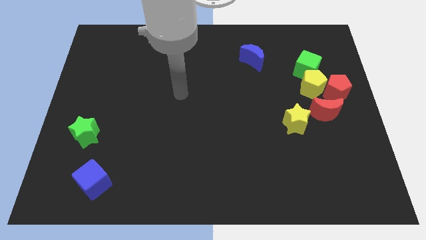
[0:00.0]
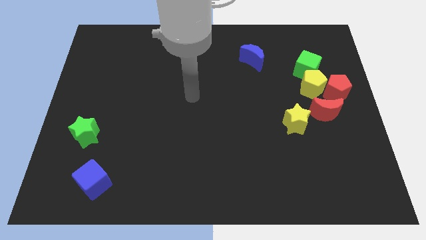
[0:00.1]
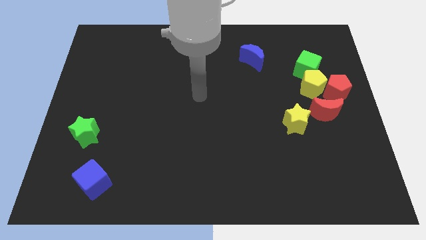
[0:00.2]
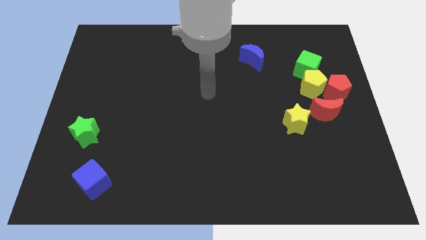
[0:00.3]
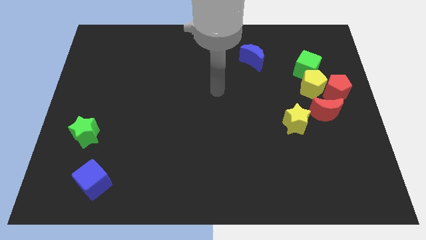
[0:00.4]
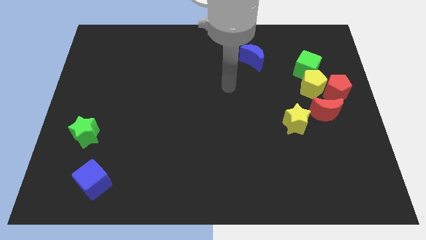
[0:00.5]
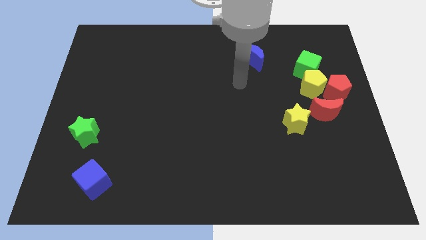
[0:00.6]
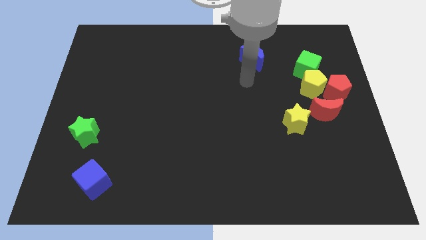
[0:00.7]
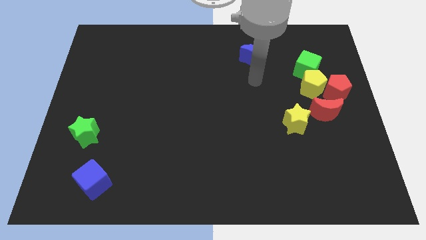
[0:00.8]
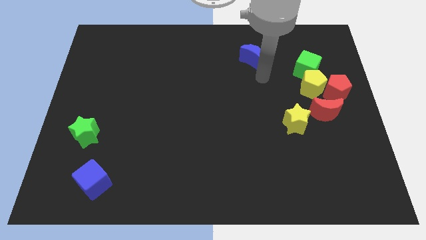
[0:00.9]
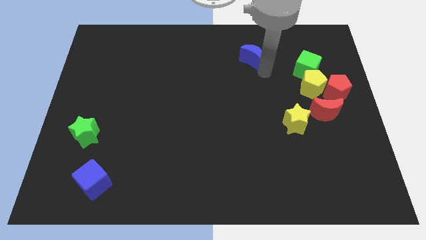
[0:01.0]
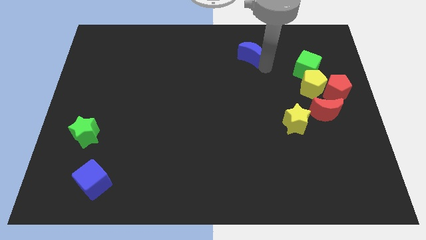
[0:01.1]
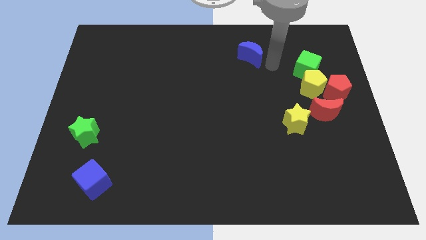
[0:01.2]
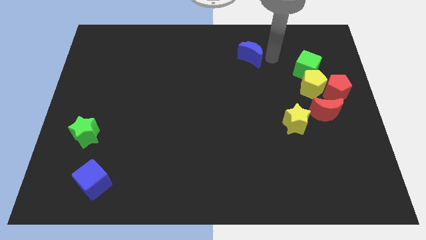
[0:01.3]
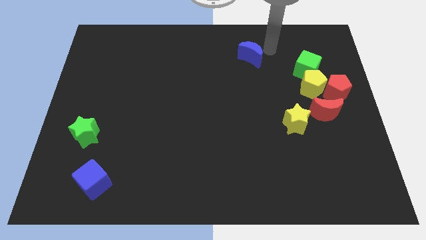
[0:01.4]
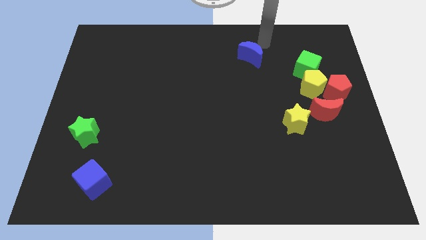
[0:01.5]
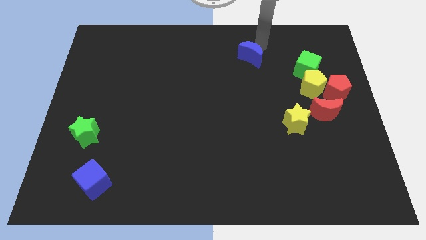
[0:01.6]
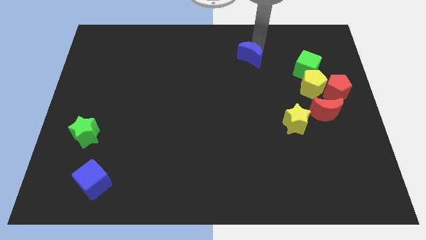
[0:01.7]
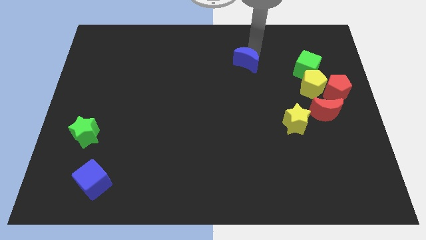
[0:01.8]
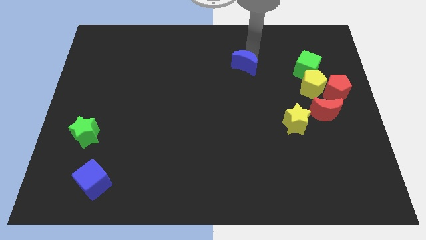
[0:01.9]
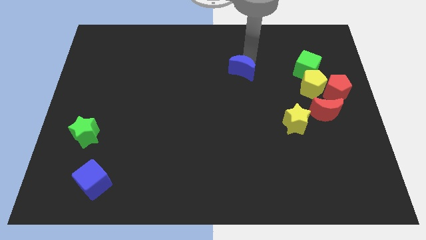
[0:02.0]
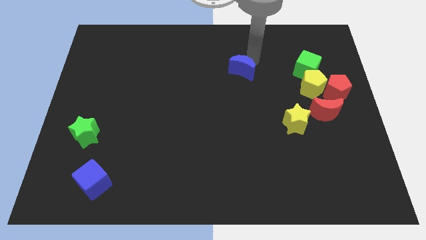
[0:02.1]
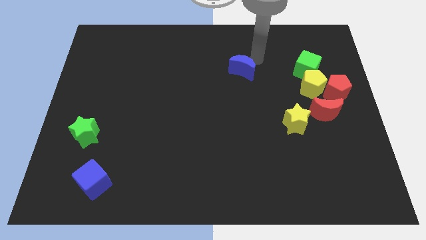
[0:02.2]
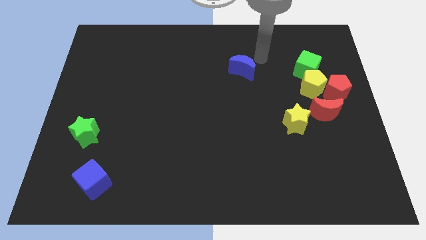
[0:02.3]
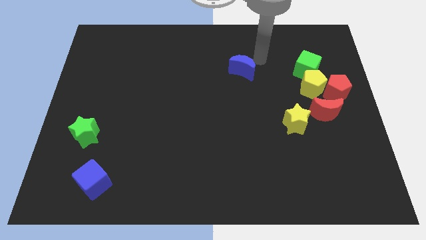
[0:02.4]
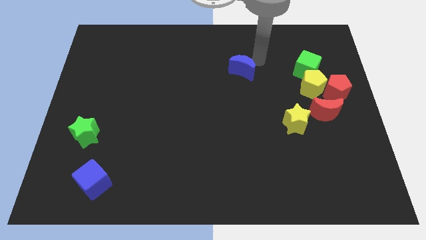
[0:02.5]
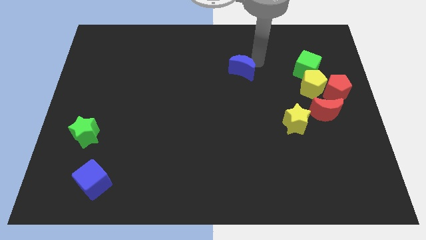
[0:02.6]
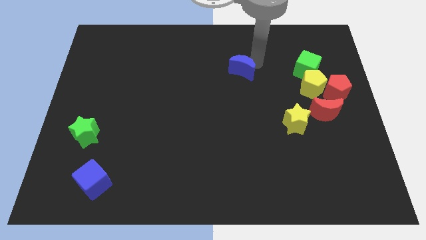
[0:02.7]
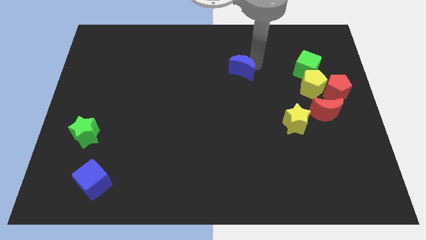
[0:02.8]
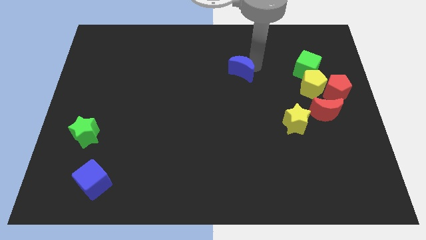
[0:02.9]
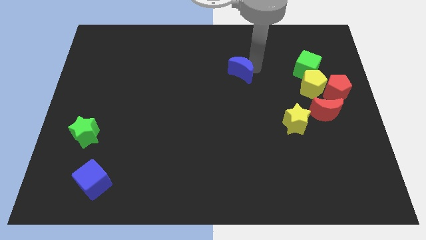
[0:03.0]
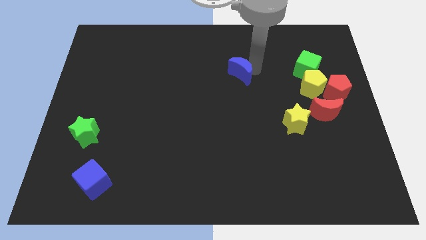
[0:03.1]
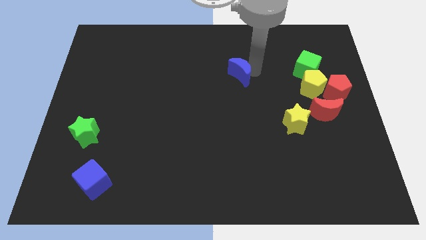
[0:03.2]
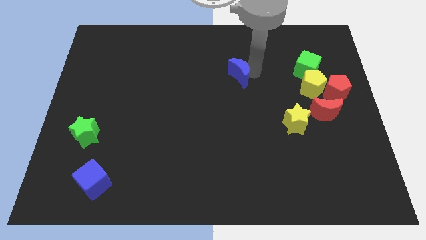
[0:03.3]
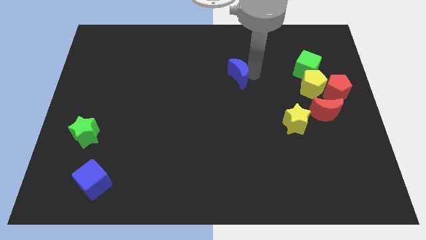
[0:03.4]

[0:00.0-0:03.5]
slightly move the blue moon diagonally downwards and left

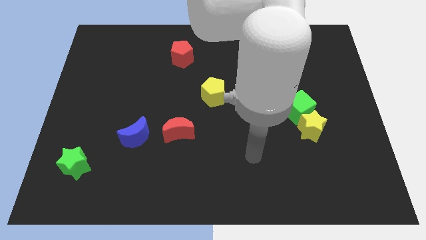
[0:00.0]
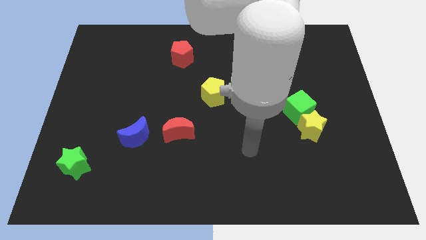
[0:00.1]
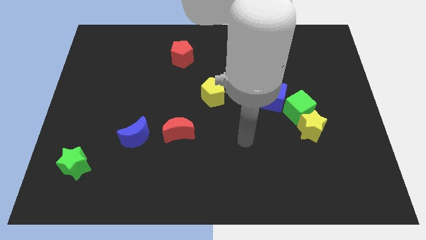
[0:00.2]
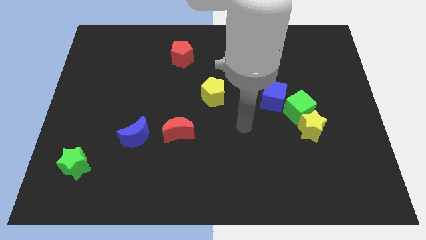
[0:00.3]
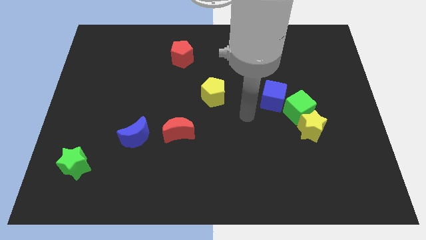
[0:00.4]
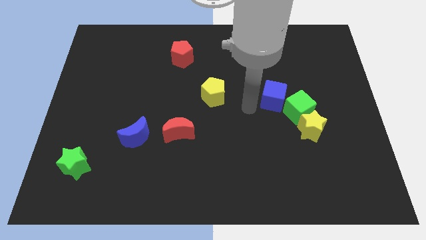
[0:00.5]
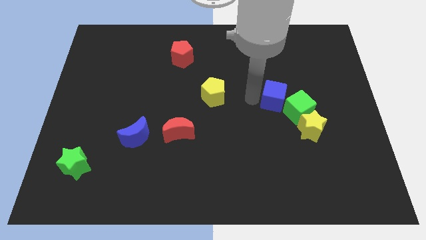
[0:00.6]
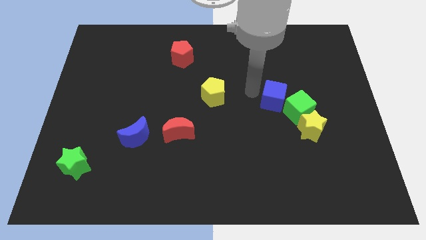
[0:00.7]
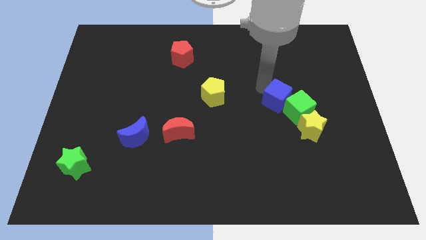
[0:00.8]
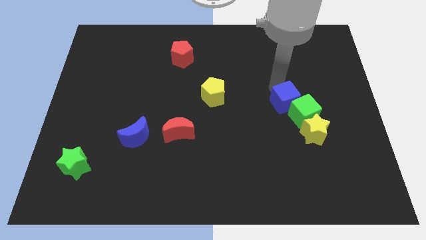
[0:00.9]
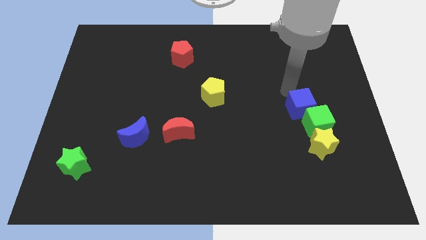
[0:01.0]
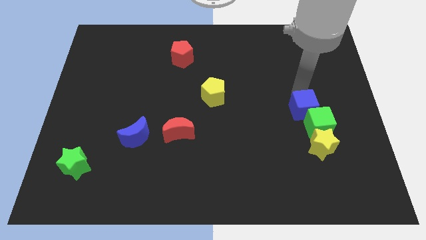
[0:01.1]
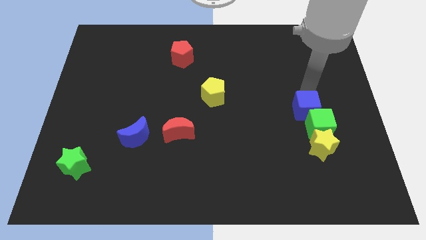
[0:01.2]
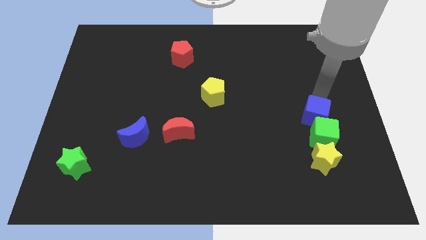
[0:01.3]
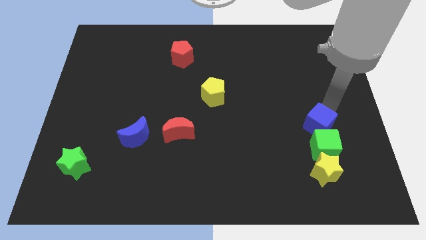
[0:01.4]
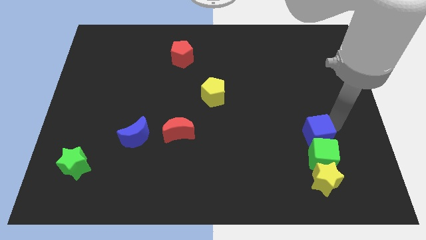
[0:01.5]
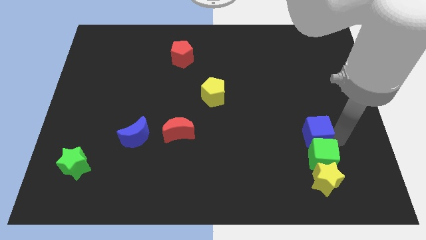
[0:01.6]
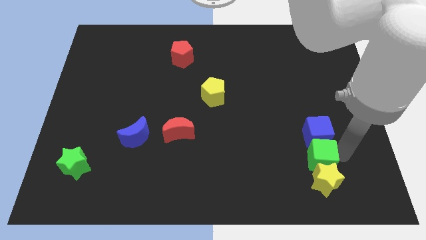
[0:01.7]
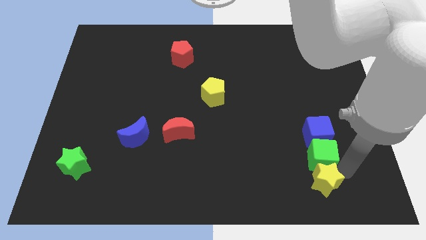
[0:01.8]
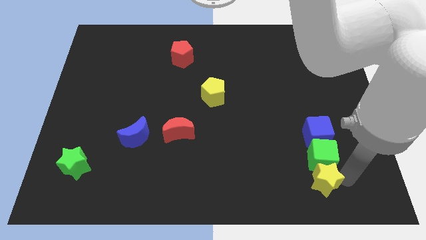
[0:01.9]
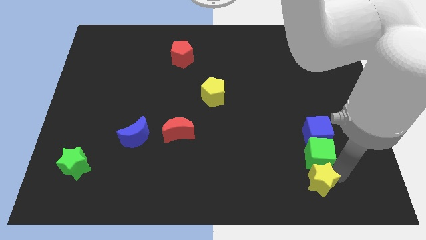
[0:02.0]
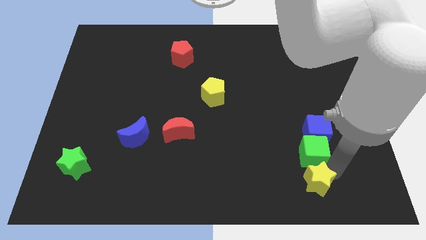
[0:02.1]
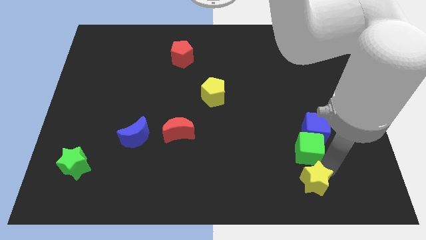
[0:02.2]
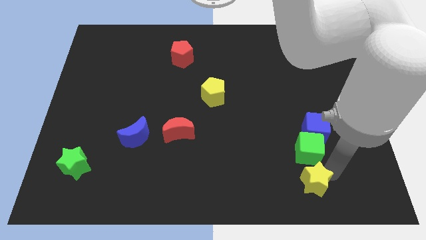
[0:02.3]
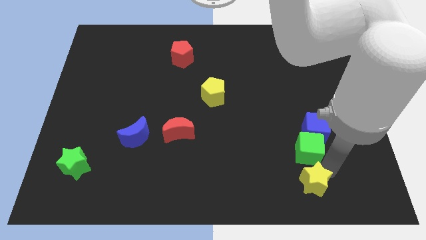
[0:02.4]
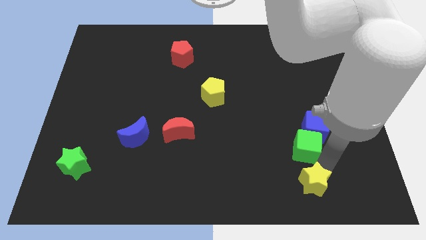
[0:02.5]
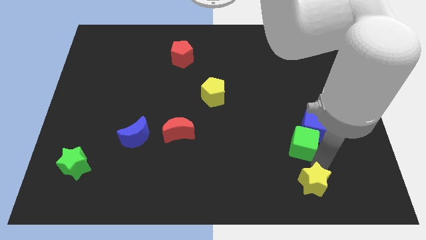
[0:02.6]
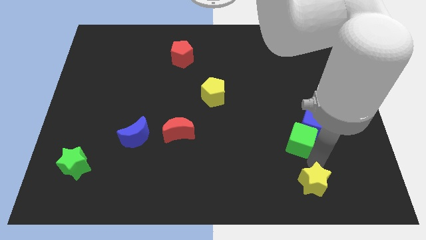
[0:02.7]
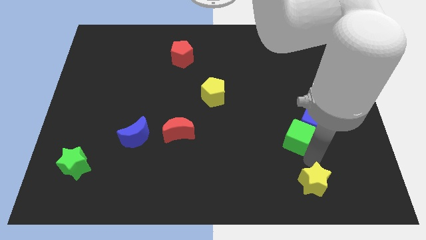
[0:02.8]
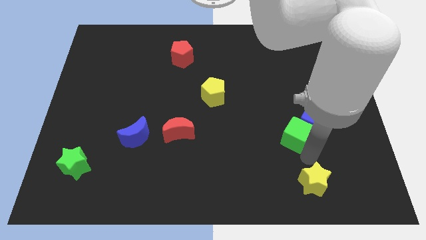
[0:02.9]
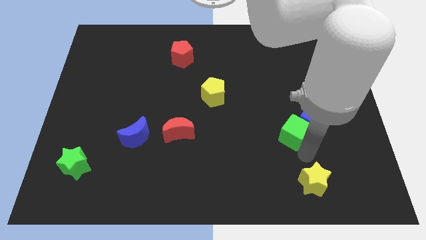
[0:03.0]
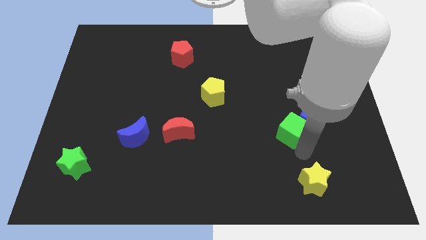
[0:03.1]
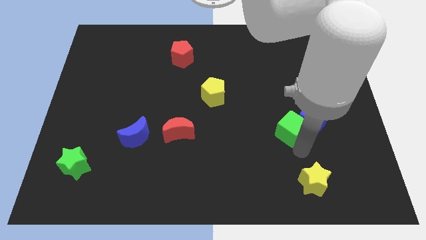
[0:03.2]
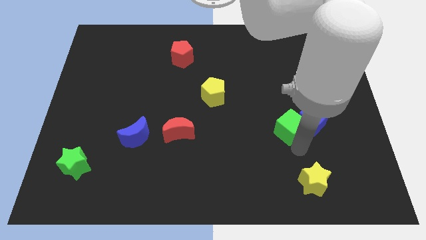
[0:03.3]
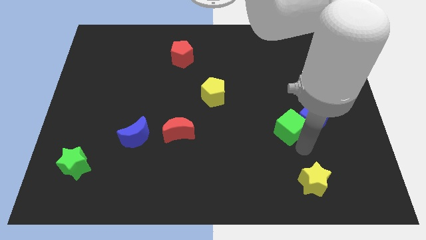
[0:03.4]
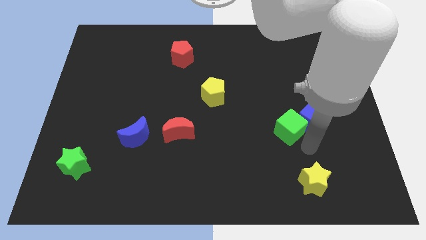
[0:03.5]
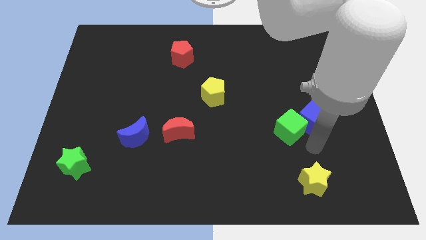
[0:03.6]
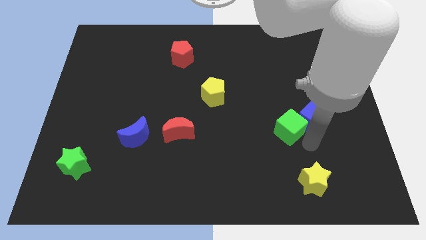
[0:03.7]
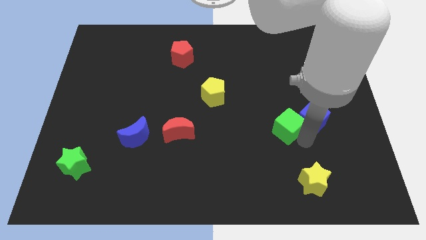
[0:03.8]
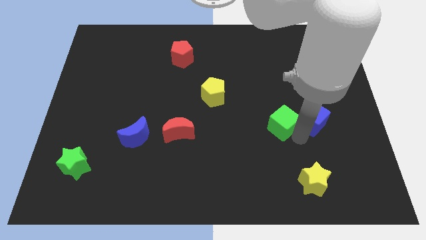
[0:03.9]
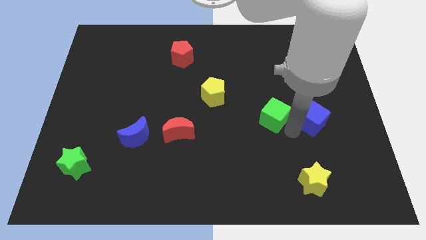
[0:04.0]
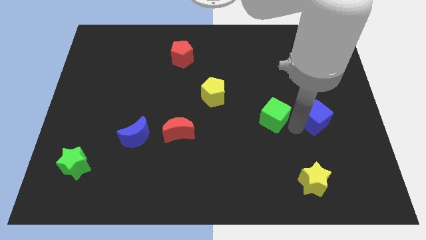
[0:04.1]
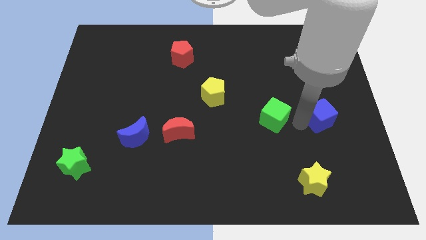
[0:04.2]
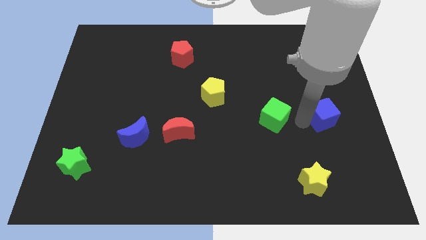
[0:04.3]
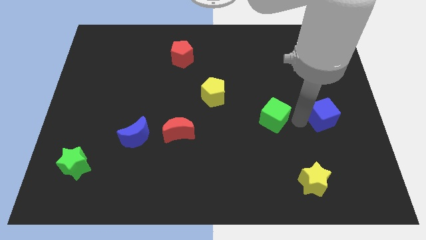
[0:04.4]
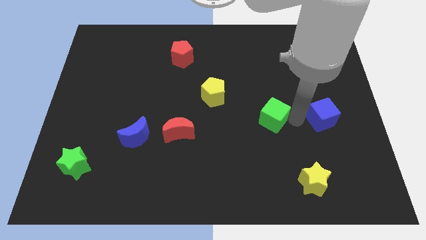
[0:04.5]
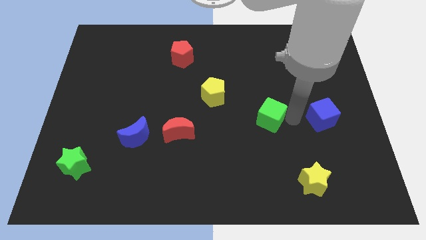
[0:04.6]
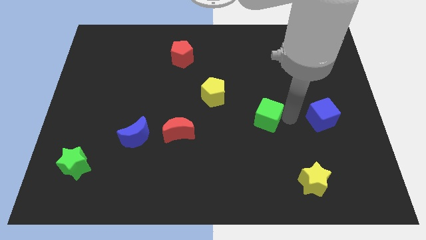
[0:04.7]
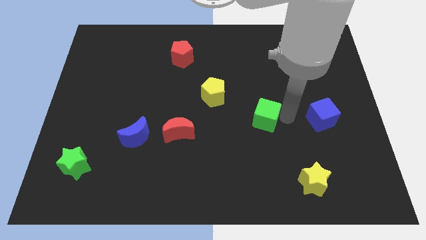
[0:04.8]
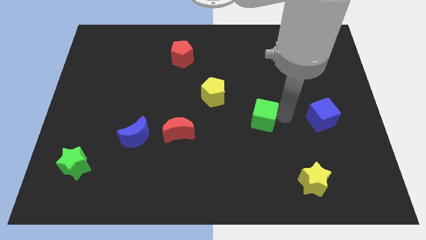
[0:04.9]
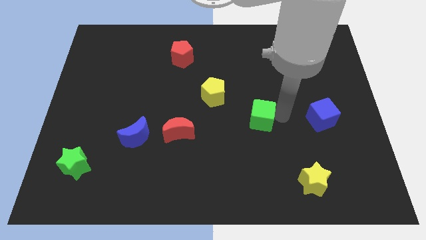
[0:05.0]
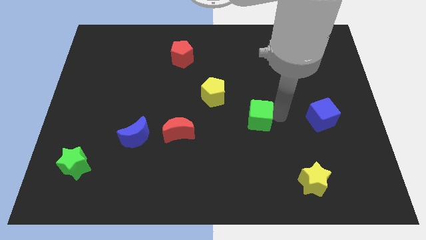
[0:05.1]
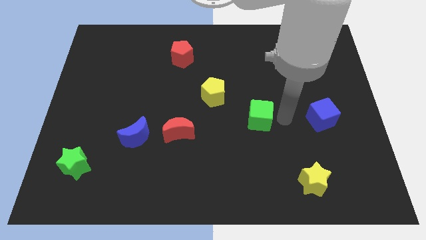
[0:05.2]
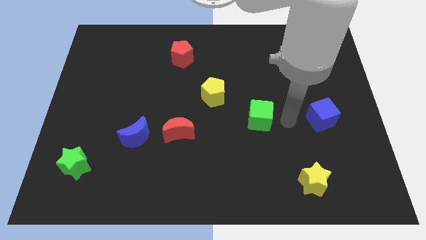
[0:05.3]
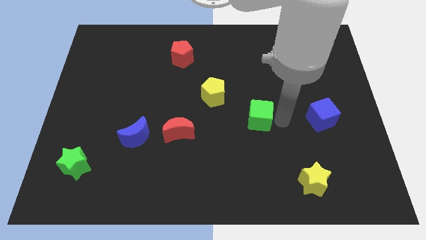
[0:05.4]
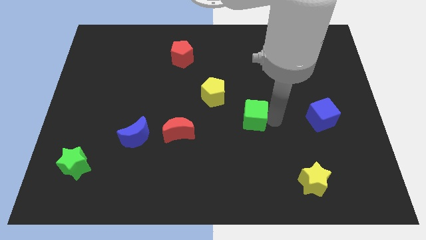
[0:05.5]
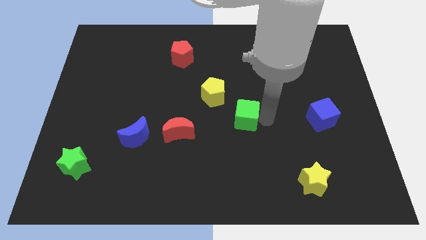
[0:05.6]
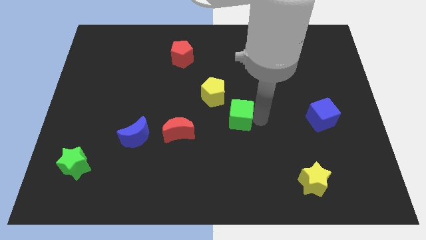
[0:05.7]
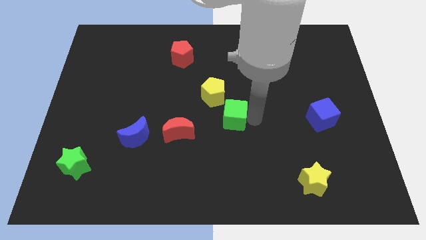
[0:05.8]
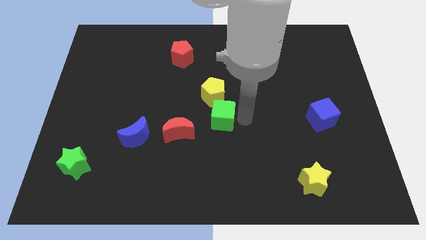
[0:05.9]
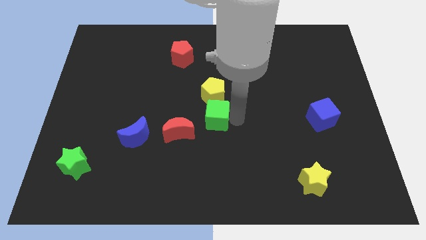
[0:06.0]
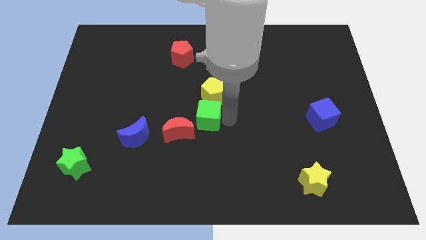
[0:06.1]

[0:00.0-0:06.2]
move the green cube to the left
